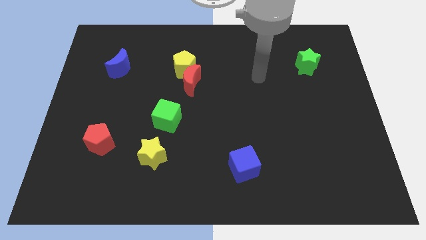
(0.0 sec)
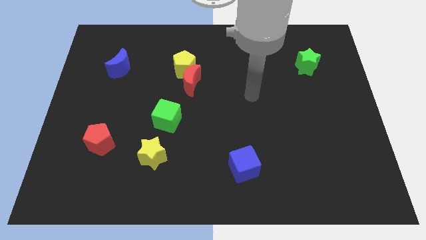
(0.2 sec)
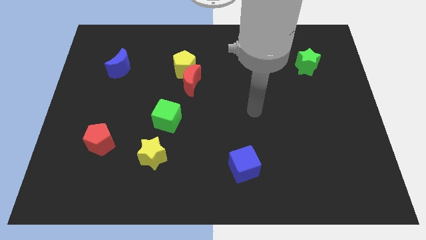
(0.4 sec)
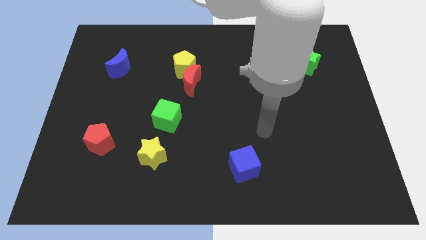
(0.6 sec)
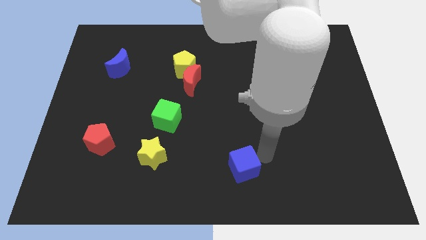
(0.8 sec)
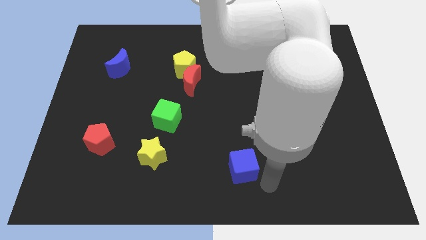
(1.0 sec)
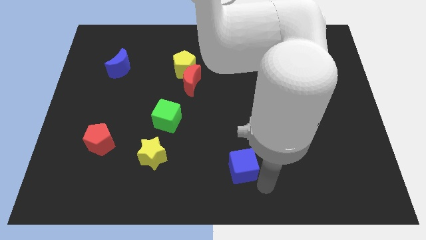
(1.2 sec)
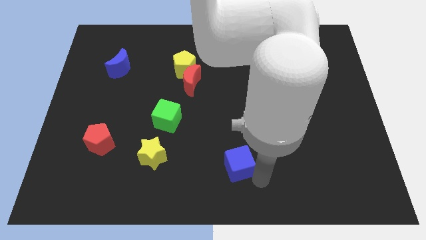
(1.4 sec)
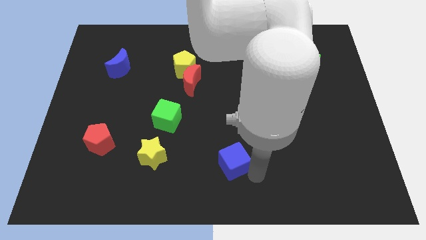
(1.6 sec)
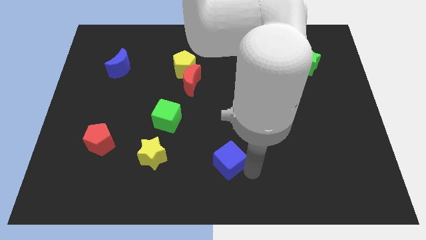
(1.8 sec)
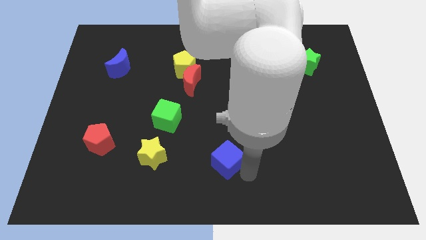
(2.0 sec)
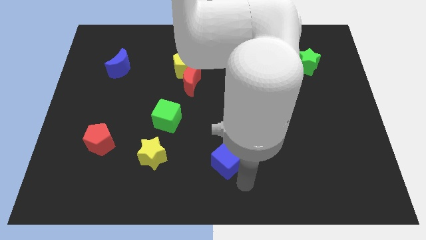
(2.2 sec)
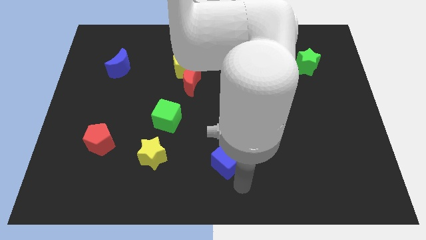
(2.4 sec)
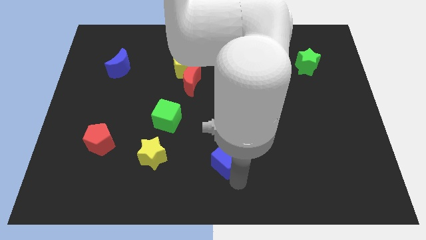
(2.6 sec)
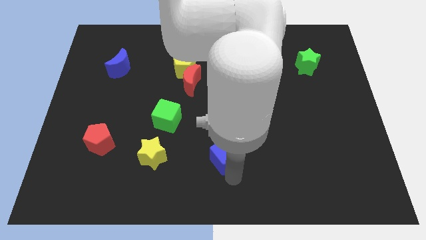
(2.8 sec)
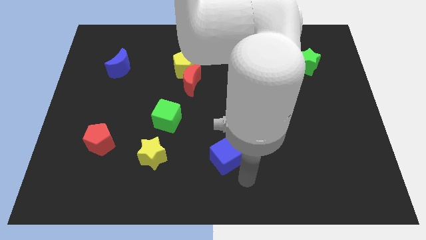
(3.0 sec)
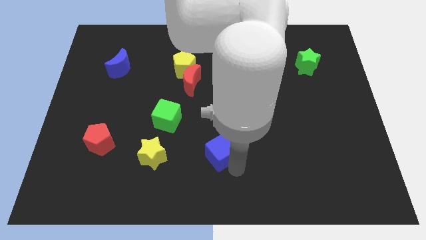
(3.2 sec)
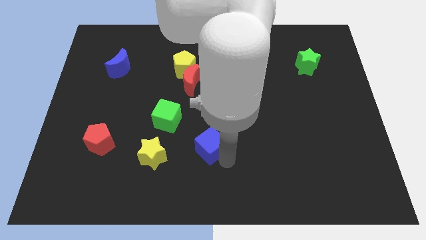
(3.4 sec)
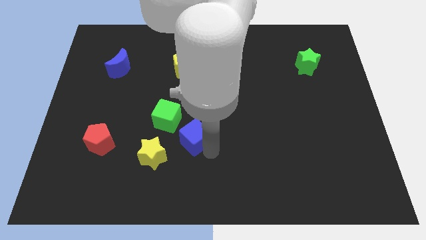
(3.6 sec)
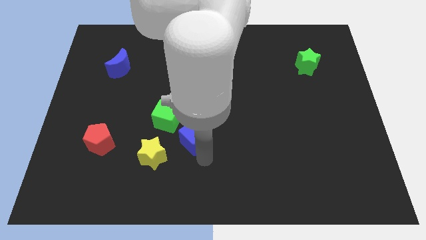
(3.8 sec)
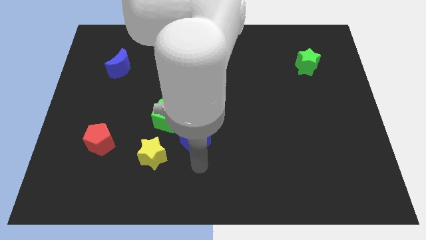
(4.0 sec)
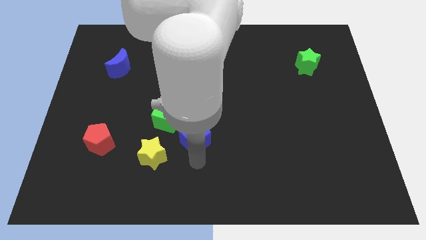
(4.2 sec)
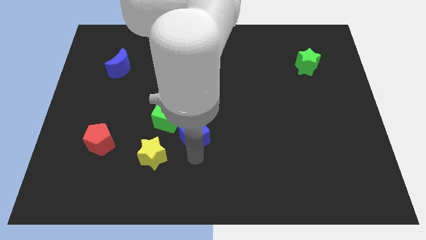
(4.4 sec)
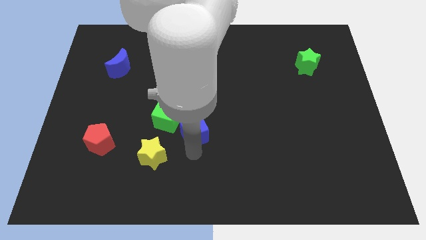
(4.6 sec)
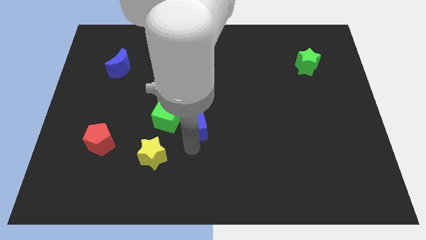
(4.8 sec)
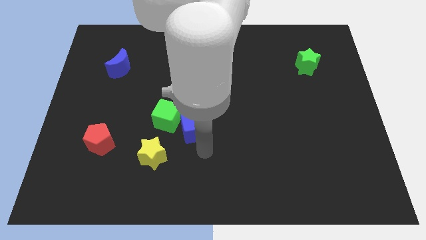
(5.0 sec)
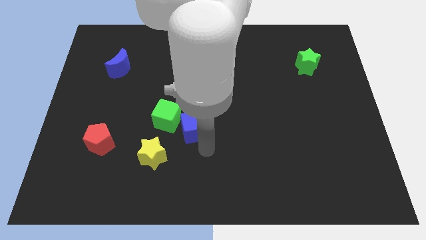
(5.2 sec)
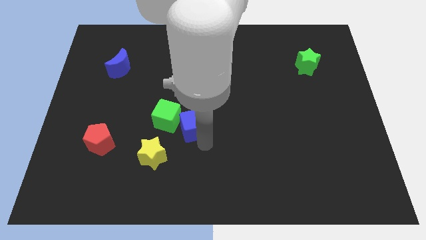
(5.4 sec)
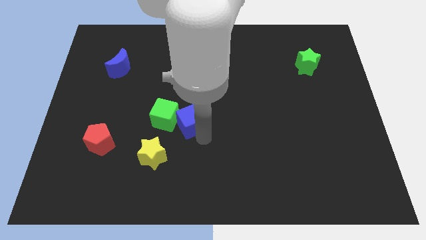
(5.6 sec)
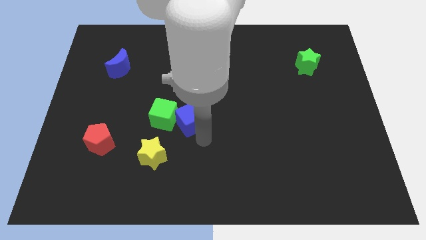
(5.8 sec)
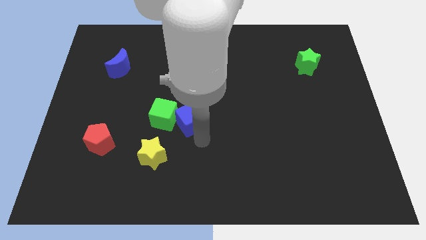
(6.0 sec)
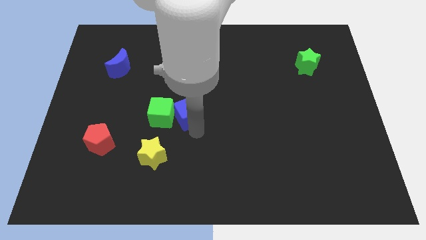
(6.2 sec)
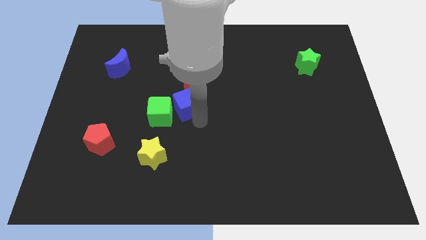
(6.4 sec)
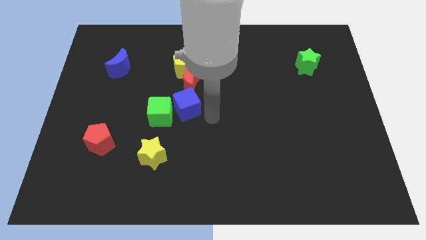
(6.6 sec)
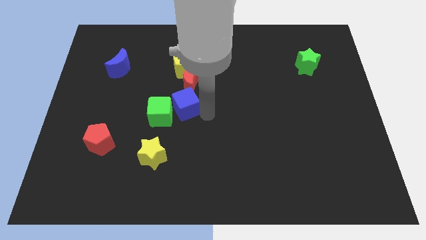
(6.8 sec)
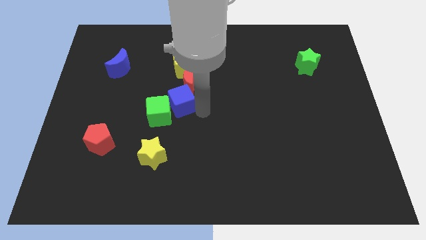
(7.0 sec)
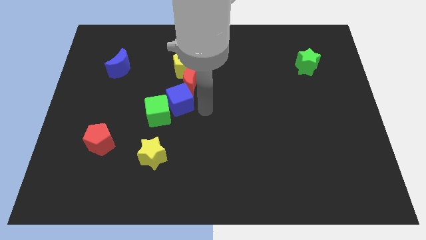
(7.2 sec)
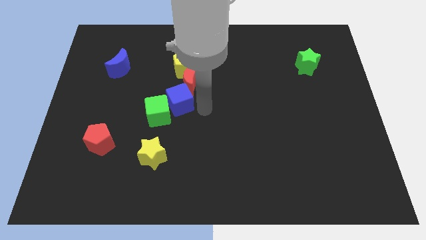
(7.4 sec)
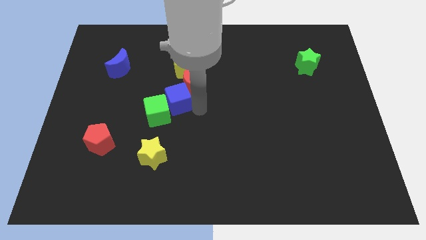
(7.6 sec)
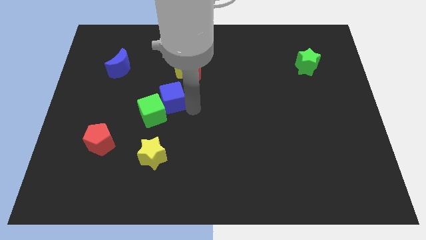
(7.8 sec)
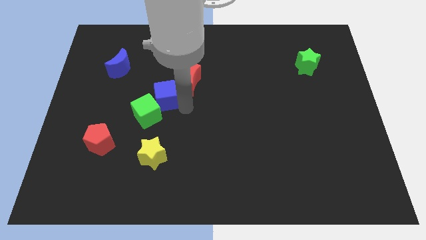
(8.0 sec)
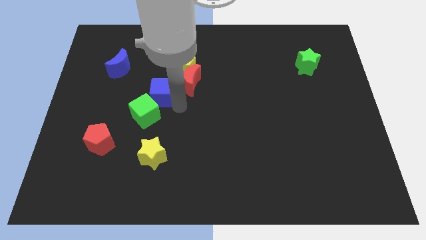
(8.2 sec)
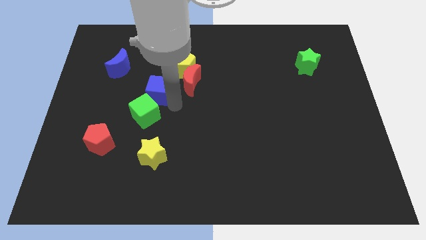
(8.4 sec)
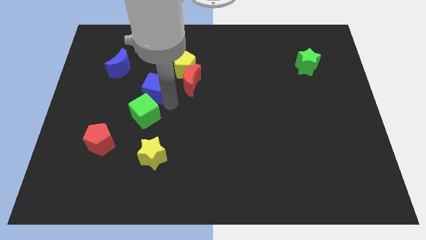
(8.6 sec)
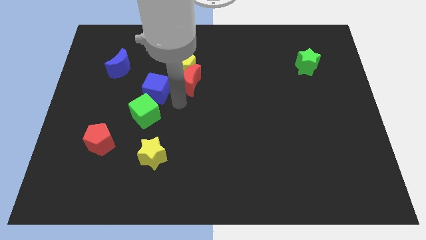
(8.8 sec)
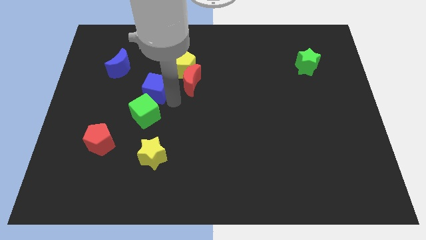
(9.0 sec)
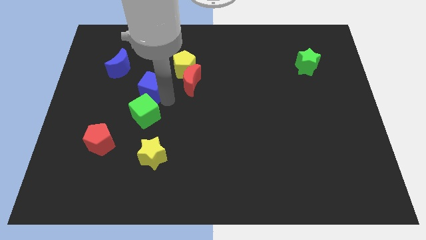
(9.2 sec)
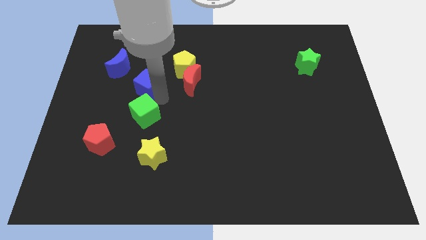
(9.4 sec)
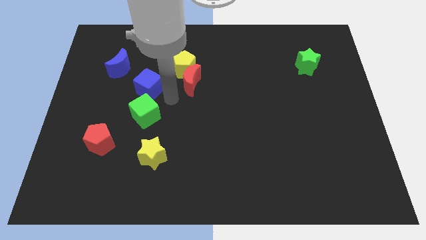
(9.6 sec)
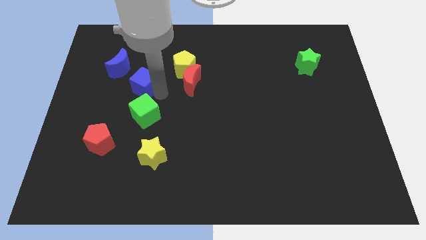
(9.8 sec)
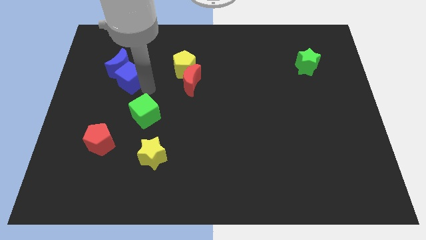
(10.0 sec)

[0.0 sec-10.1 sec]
move the blue cube close to the blue moon

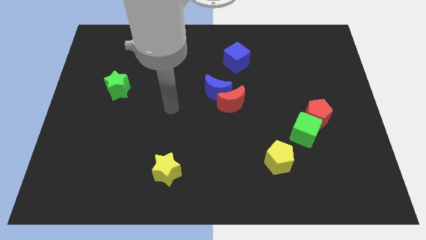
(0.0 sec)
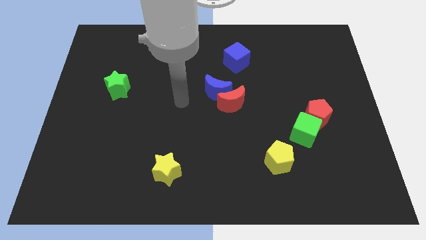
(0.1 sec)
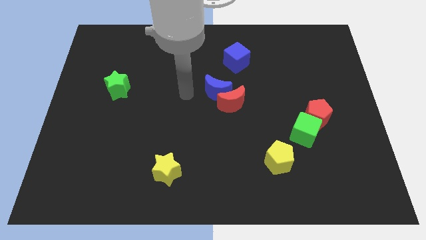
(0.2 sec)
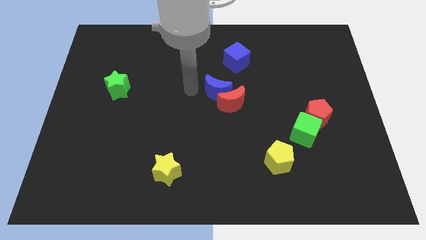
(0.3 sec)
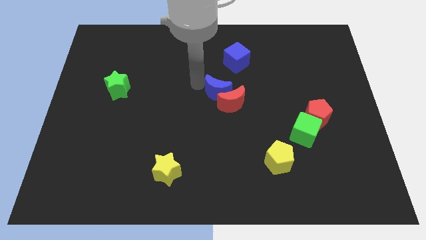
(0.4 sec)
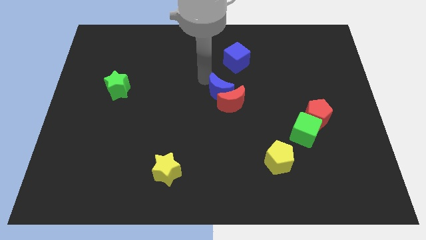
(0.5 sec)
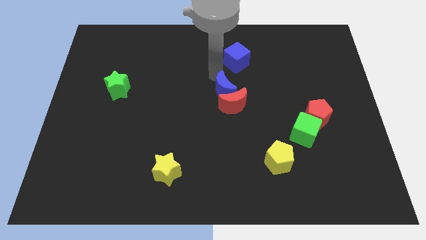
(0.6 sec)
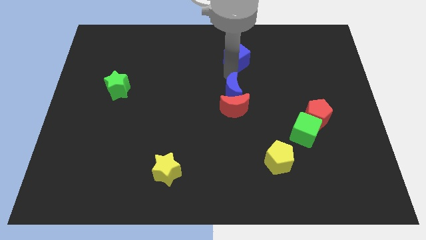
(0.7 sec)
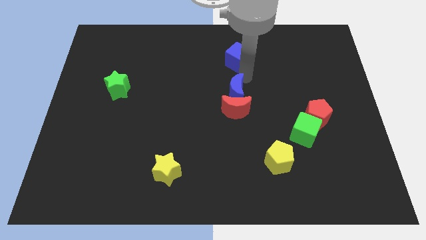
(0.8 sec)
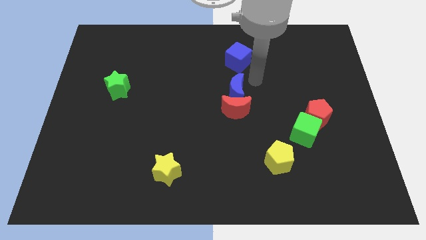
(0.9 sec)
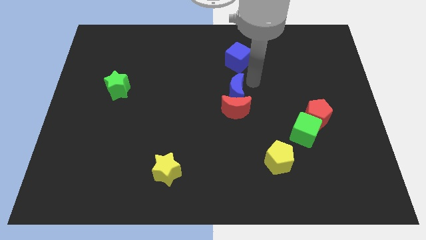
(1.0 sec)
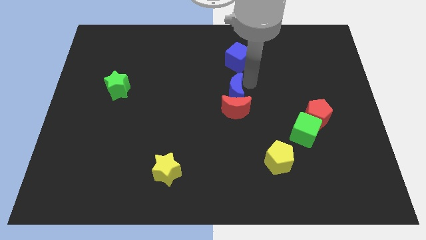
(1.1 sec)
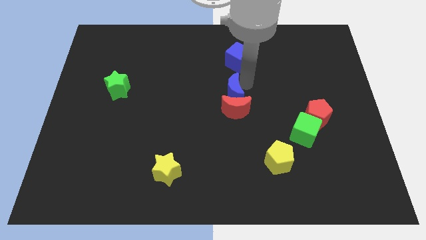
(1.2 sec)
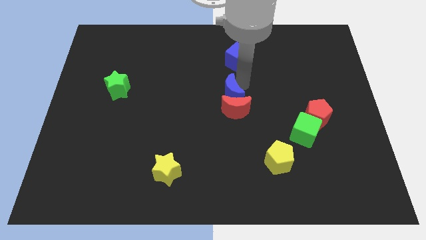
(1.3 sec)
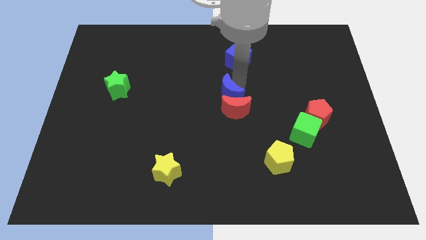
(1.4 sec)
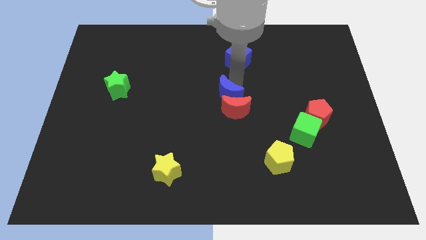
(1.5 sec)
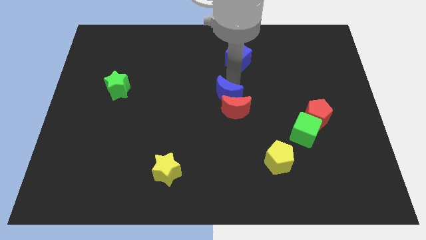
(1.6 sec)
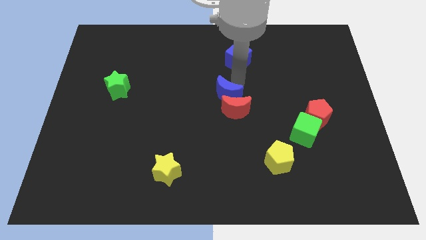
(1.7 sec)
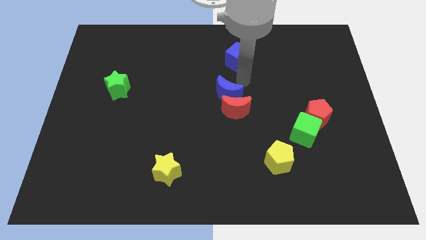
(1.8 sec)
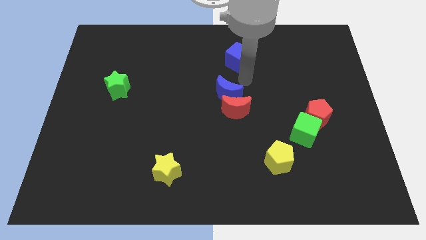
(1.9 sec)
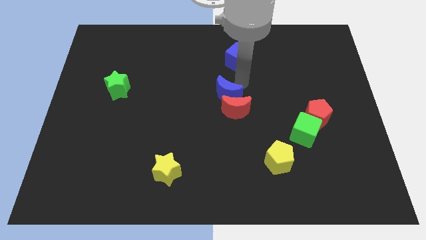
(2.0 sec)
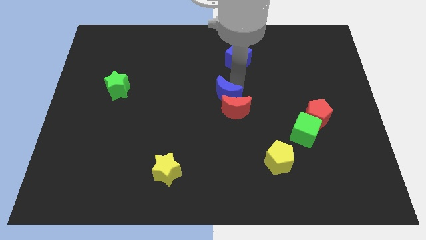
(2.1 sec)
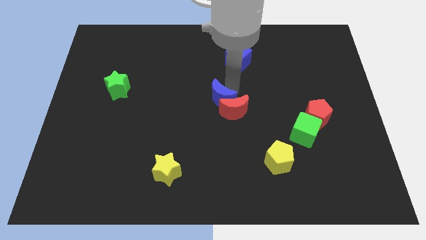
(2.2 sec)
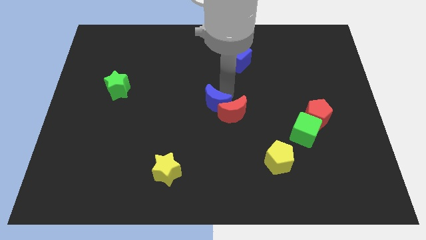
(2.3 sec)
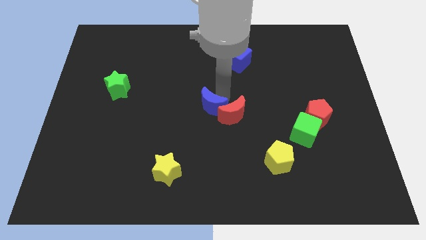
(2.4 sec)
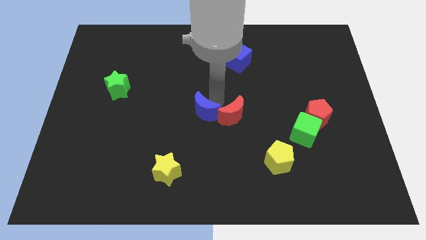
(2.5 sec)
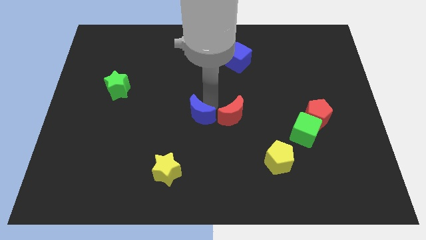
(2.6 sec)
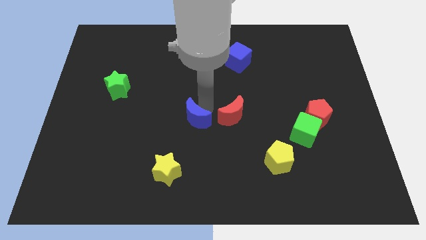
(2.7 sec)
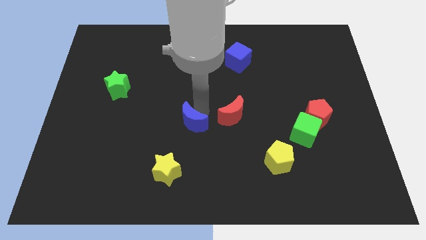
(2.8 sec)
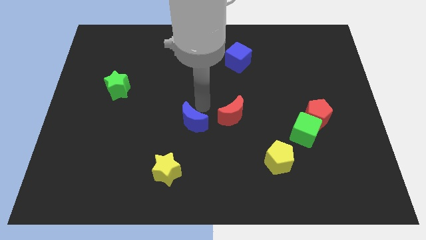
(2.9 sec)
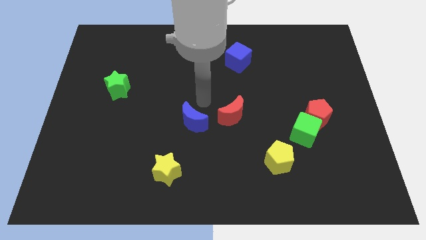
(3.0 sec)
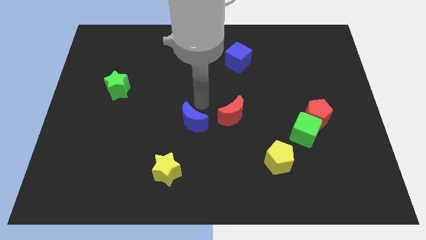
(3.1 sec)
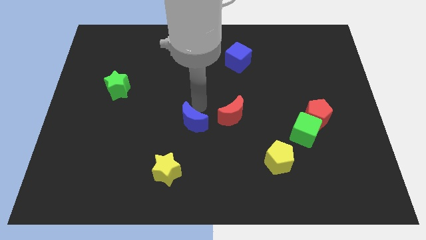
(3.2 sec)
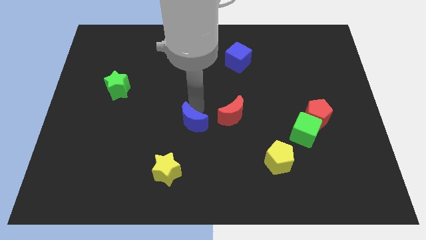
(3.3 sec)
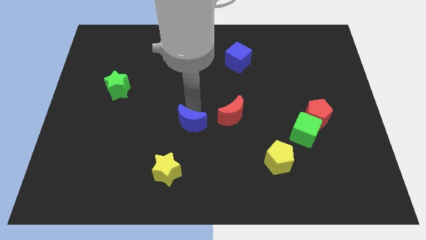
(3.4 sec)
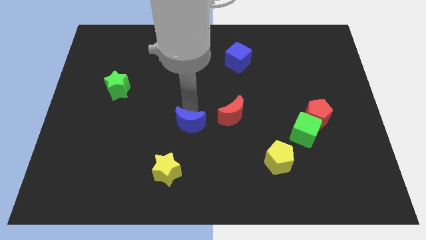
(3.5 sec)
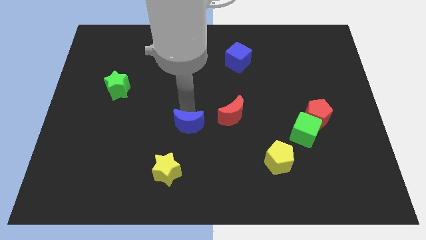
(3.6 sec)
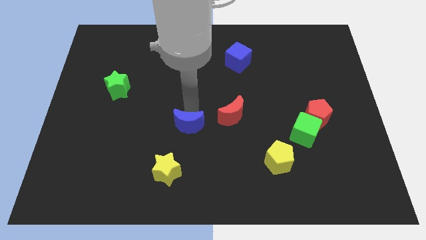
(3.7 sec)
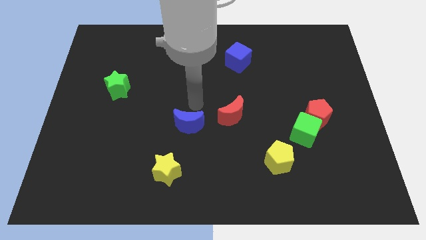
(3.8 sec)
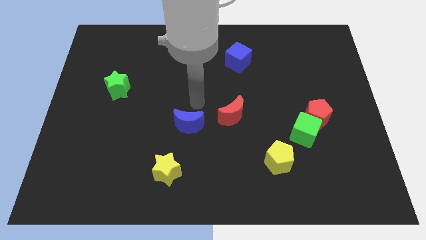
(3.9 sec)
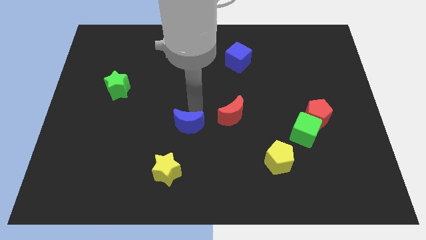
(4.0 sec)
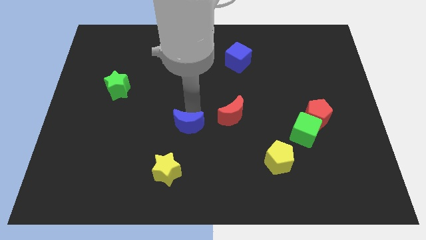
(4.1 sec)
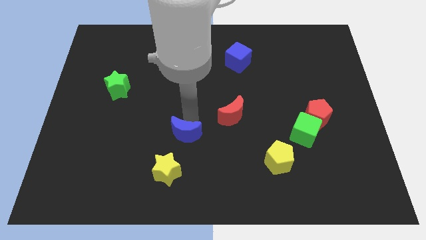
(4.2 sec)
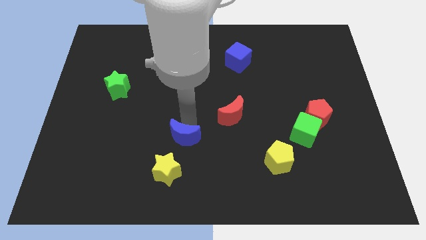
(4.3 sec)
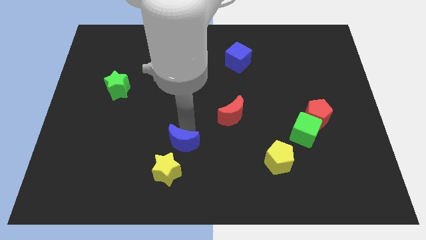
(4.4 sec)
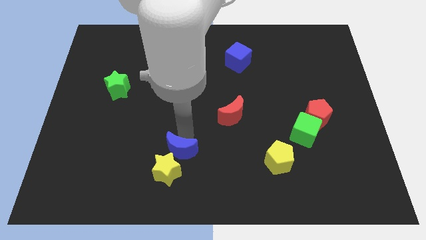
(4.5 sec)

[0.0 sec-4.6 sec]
slide the blue moon close to the yellow star
